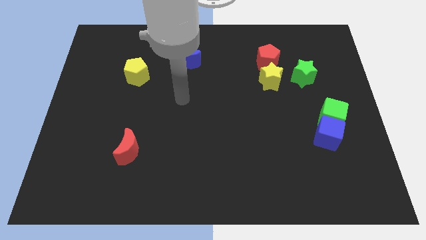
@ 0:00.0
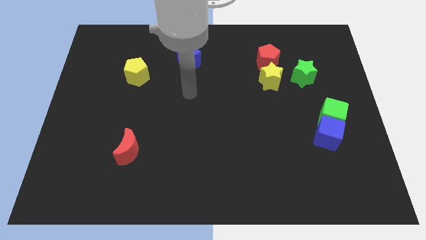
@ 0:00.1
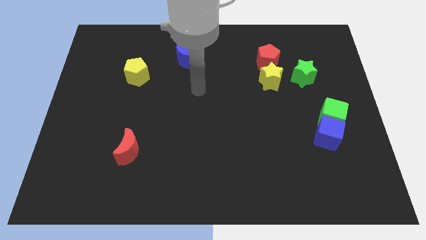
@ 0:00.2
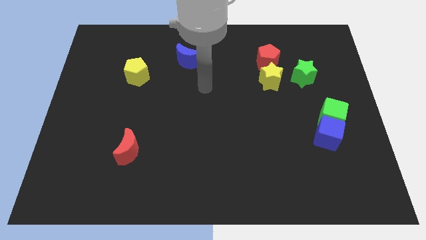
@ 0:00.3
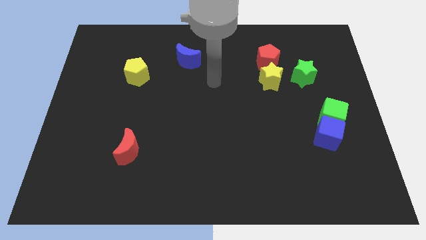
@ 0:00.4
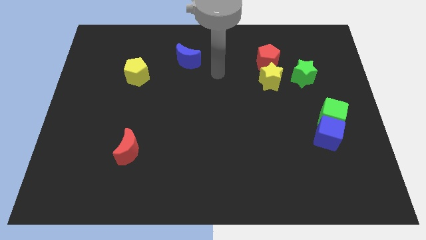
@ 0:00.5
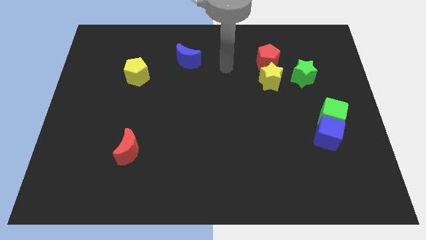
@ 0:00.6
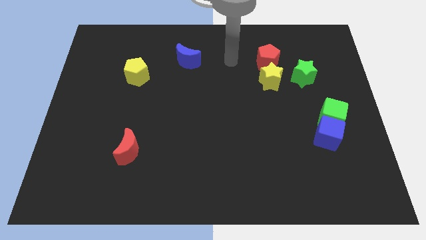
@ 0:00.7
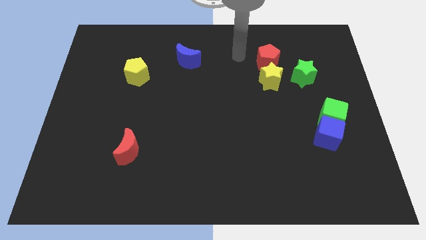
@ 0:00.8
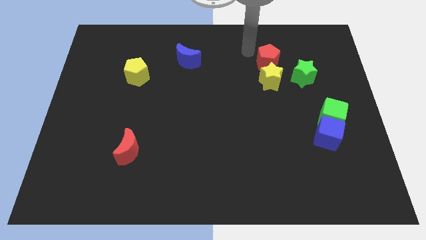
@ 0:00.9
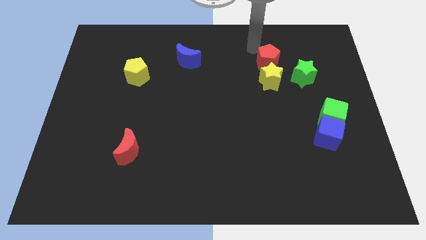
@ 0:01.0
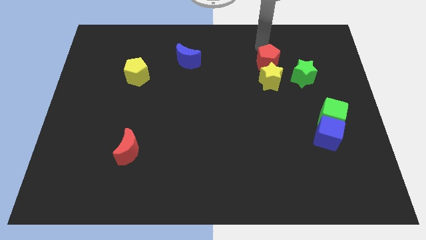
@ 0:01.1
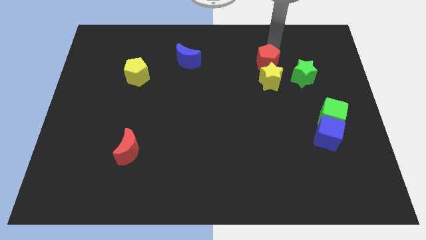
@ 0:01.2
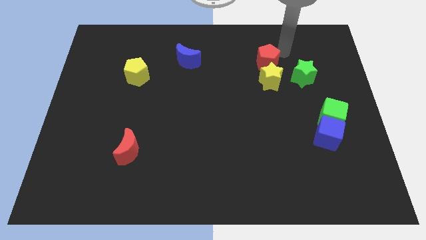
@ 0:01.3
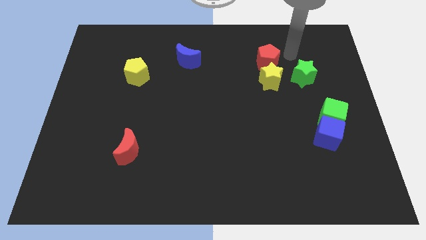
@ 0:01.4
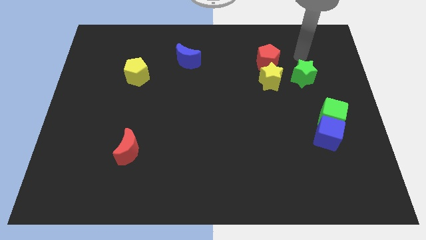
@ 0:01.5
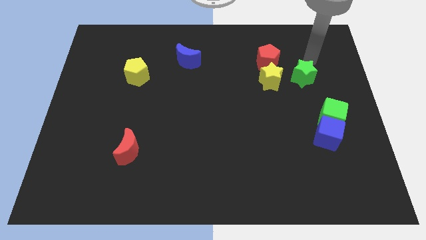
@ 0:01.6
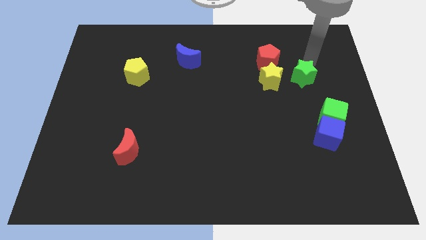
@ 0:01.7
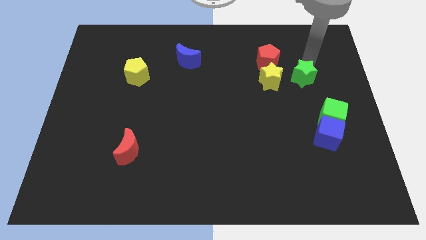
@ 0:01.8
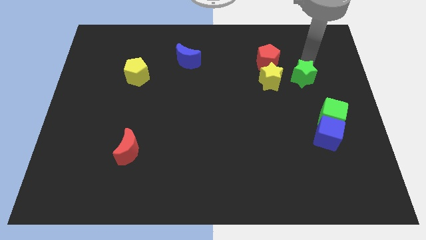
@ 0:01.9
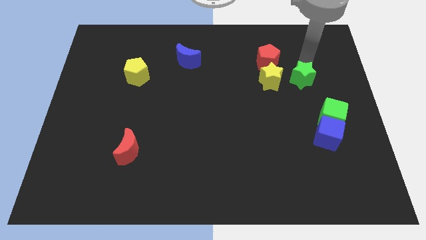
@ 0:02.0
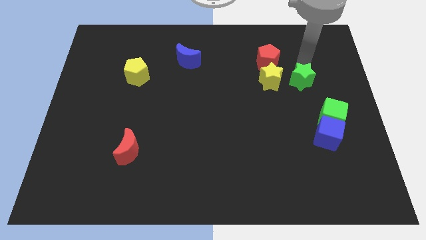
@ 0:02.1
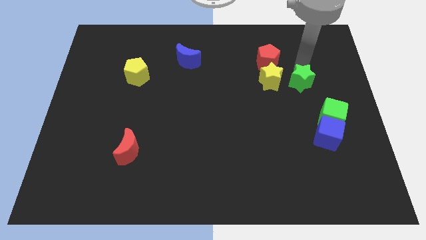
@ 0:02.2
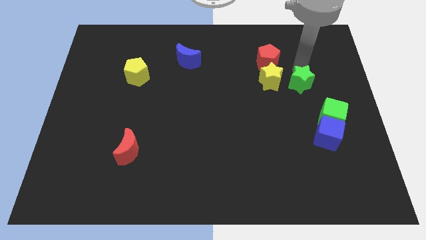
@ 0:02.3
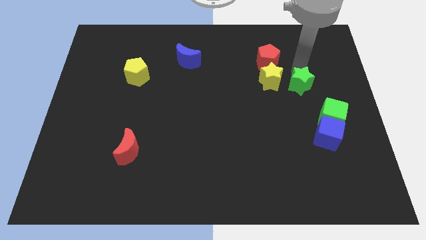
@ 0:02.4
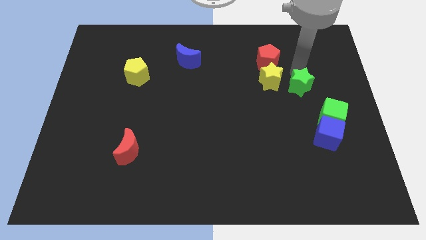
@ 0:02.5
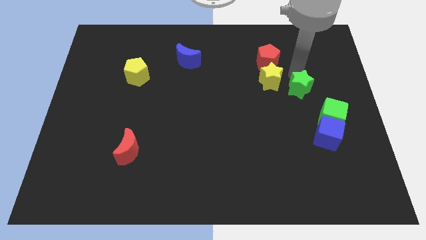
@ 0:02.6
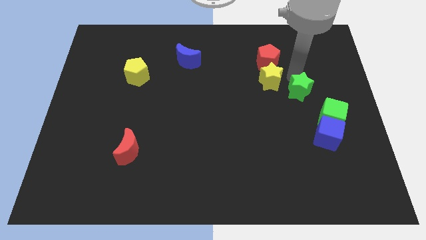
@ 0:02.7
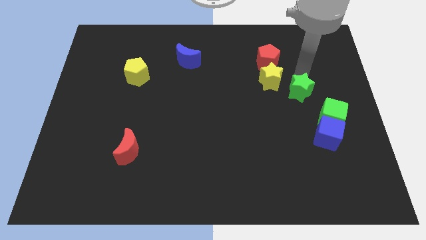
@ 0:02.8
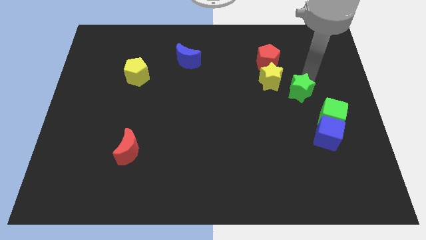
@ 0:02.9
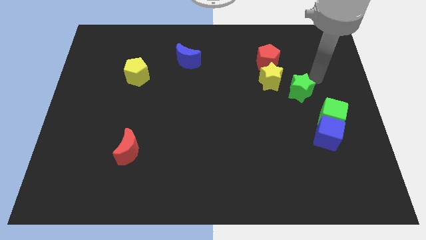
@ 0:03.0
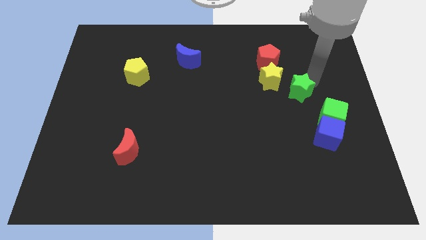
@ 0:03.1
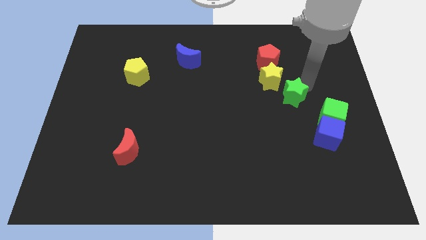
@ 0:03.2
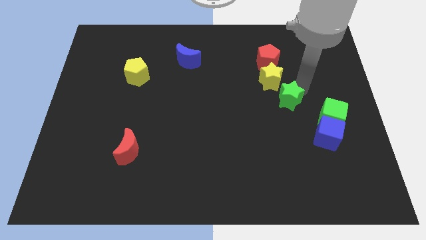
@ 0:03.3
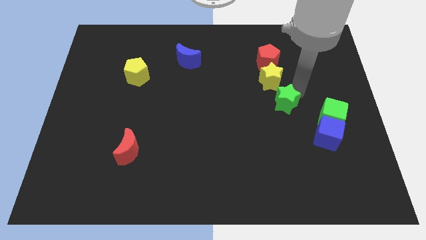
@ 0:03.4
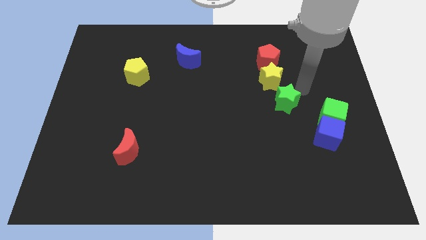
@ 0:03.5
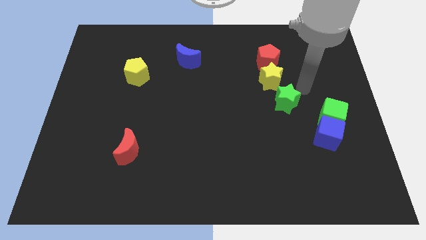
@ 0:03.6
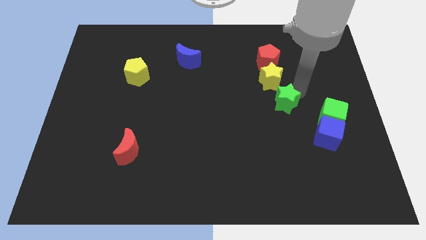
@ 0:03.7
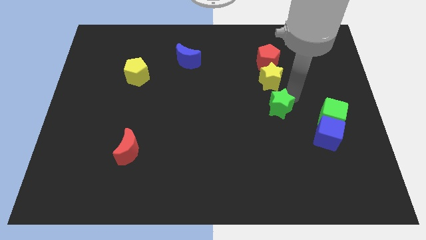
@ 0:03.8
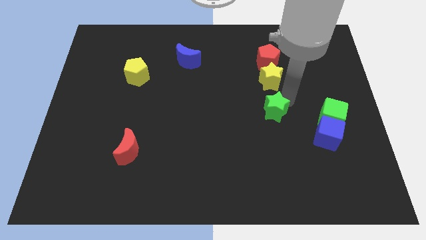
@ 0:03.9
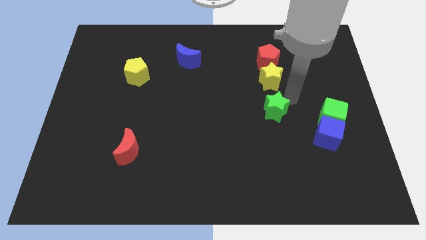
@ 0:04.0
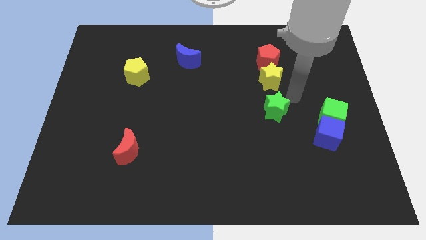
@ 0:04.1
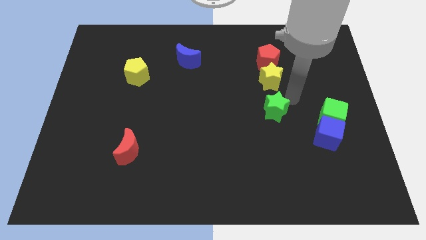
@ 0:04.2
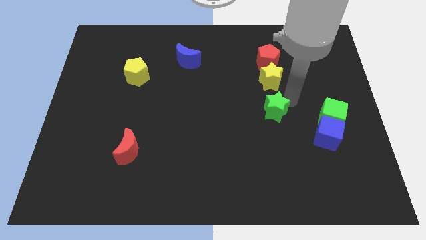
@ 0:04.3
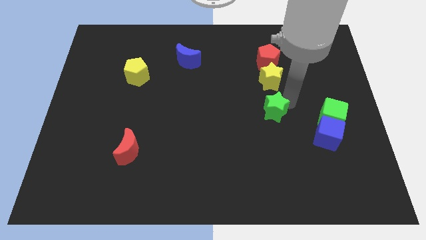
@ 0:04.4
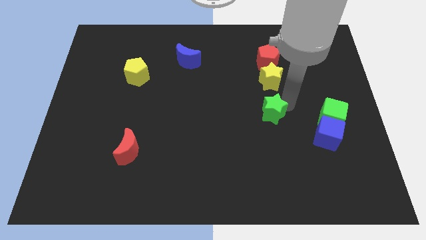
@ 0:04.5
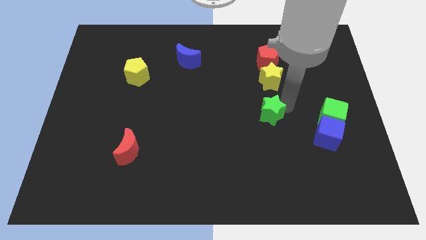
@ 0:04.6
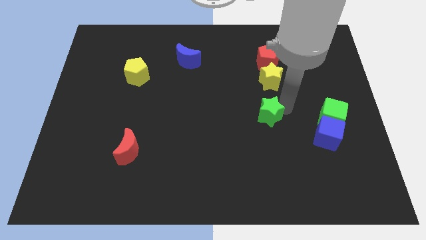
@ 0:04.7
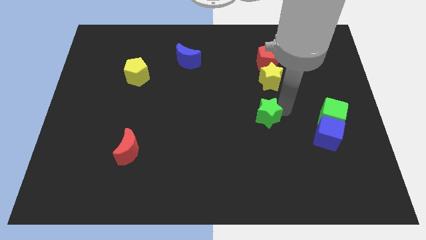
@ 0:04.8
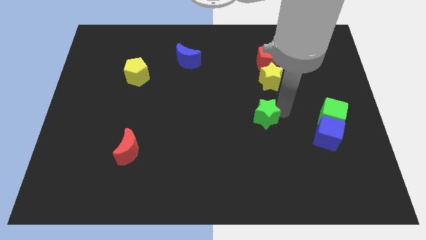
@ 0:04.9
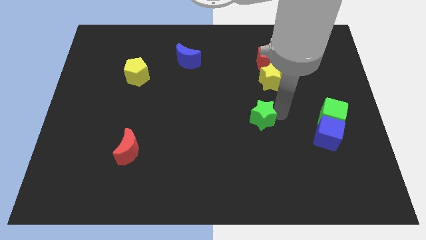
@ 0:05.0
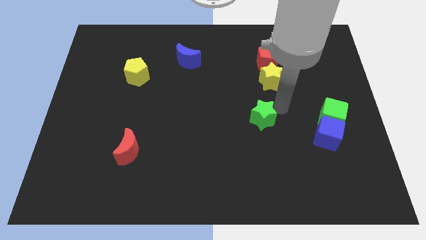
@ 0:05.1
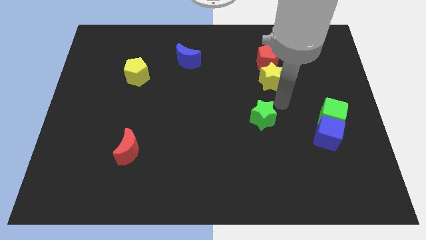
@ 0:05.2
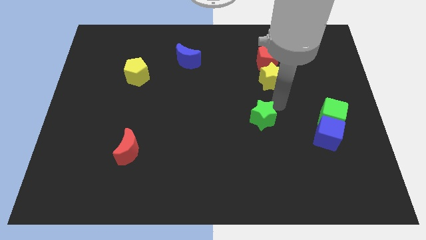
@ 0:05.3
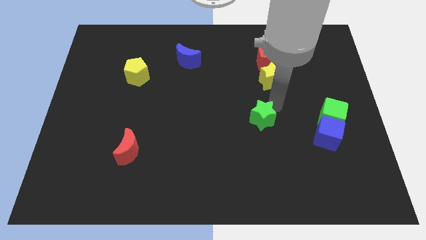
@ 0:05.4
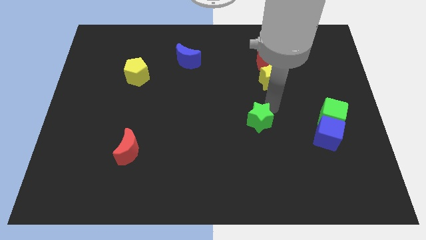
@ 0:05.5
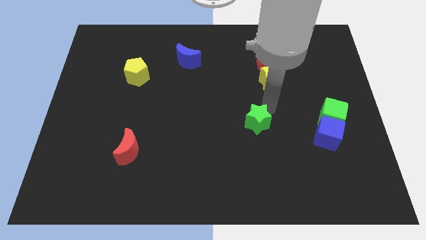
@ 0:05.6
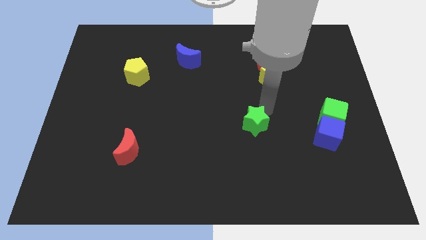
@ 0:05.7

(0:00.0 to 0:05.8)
push the green star down and left

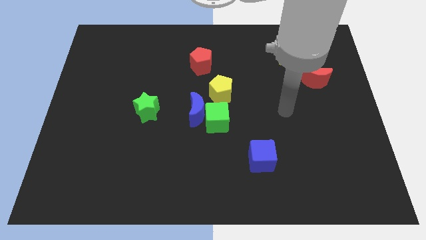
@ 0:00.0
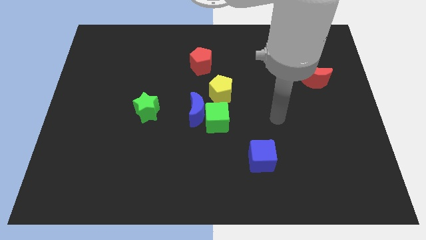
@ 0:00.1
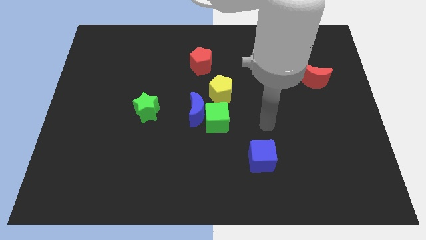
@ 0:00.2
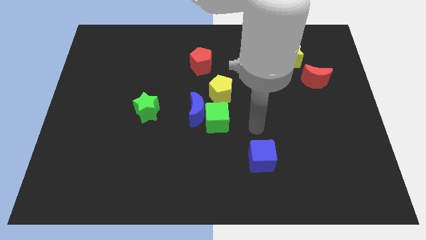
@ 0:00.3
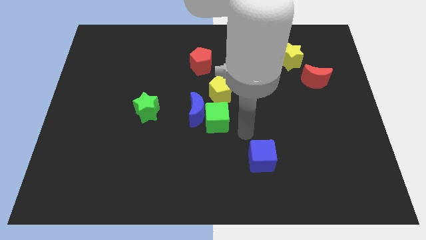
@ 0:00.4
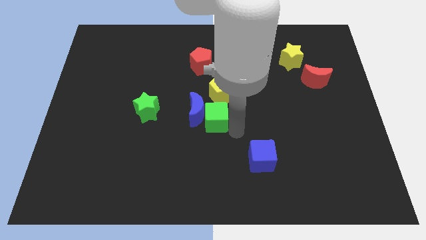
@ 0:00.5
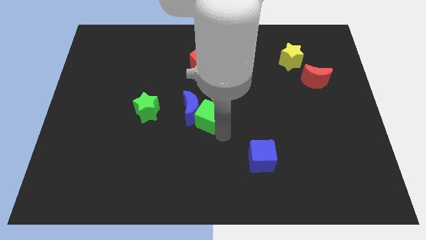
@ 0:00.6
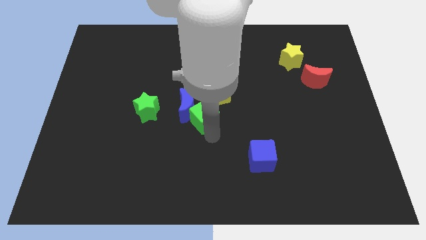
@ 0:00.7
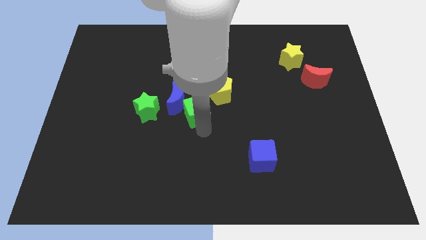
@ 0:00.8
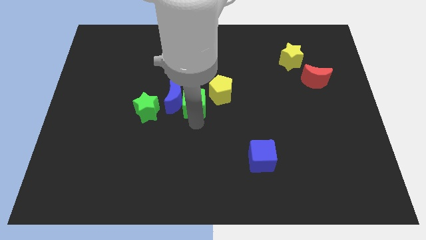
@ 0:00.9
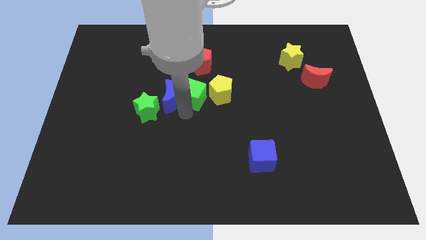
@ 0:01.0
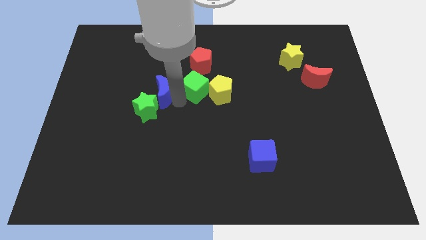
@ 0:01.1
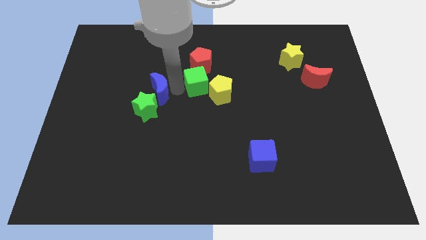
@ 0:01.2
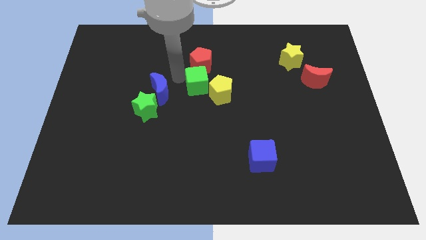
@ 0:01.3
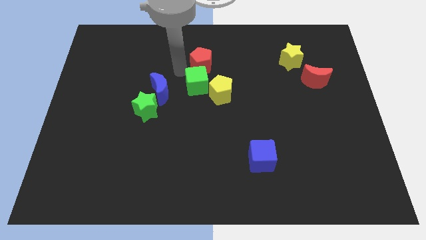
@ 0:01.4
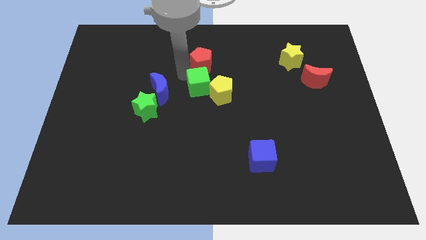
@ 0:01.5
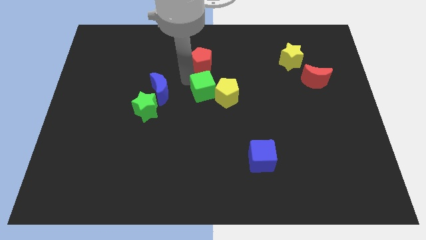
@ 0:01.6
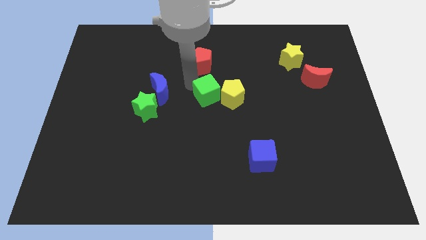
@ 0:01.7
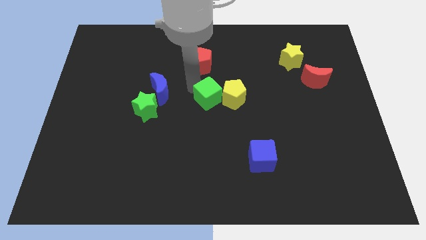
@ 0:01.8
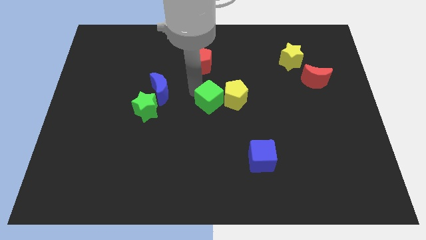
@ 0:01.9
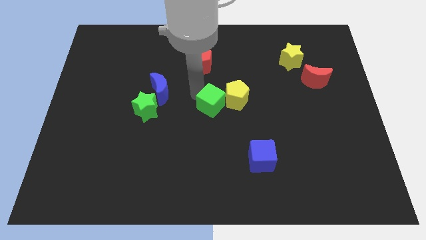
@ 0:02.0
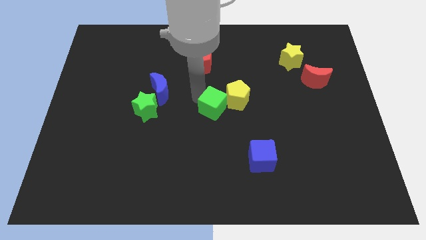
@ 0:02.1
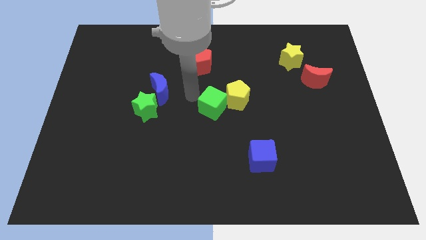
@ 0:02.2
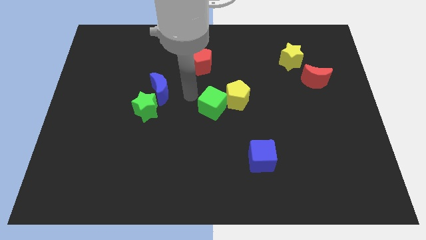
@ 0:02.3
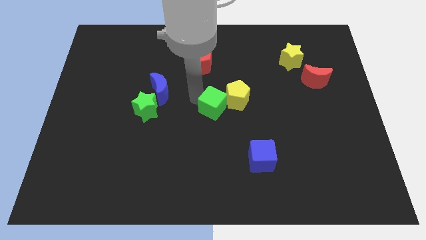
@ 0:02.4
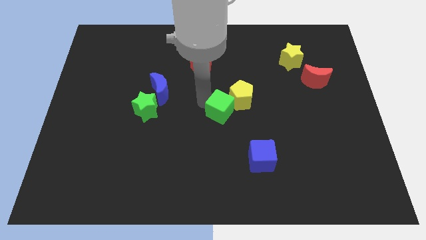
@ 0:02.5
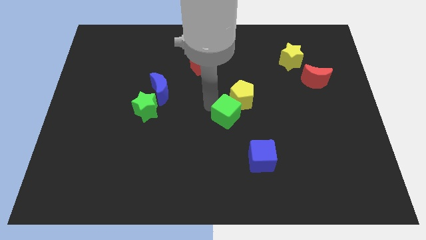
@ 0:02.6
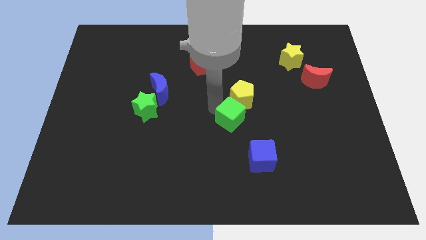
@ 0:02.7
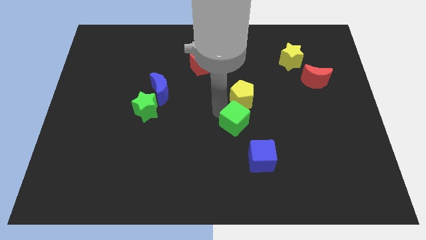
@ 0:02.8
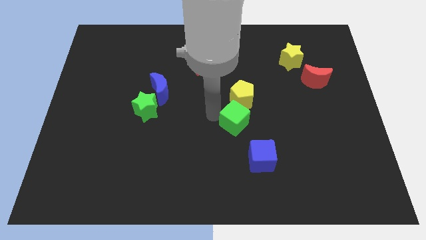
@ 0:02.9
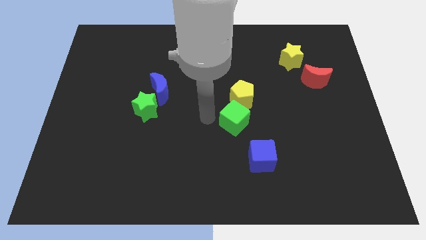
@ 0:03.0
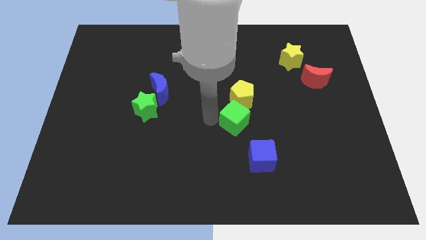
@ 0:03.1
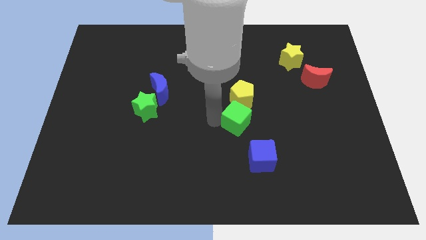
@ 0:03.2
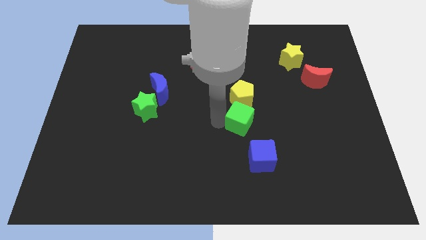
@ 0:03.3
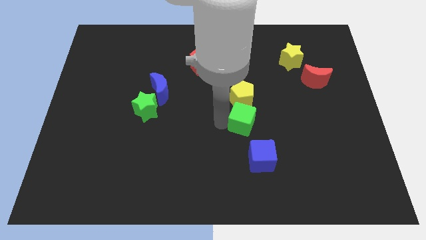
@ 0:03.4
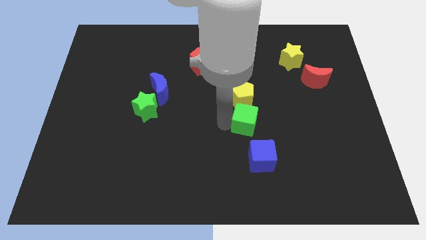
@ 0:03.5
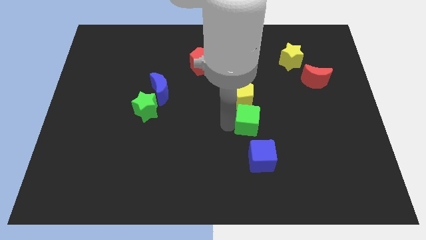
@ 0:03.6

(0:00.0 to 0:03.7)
slide the green cube a little to the right
